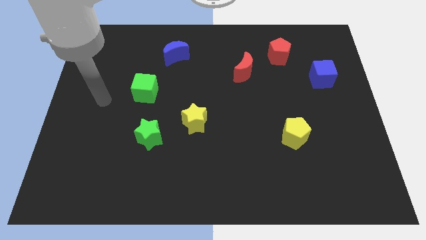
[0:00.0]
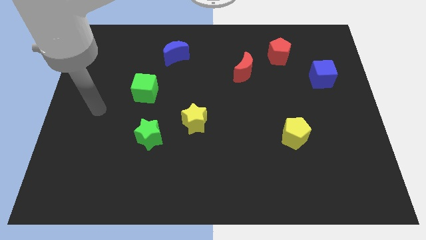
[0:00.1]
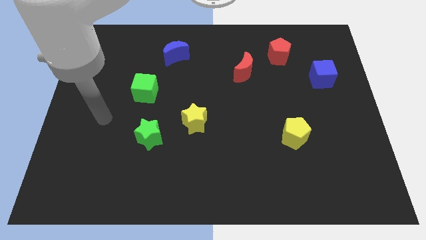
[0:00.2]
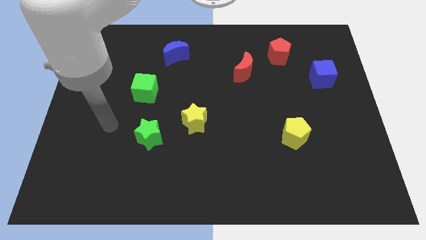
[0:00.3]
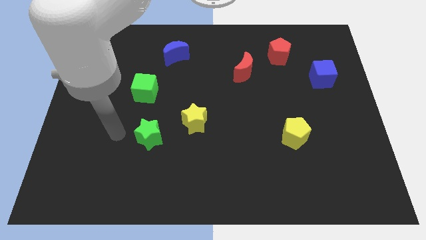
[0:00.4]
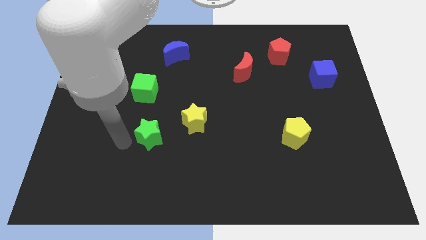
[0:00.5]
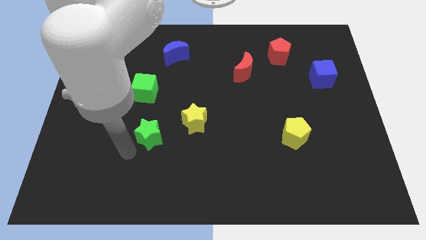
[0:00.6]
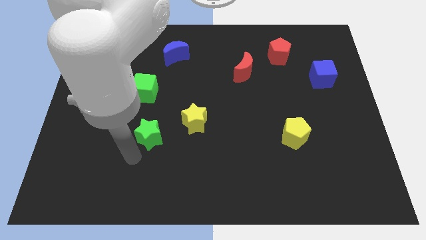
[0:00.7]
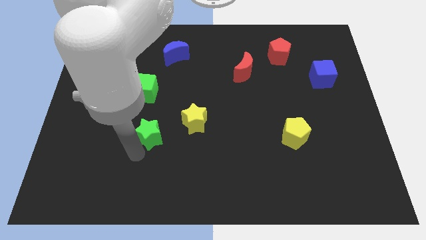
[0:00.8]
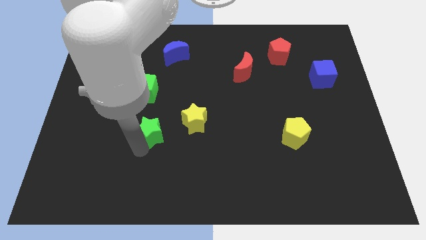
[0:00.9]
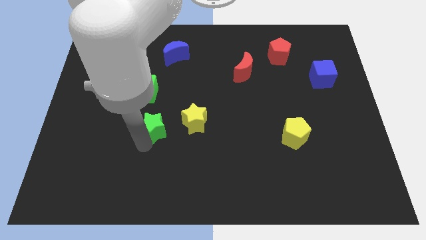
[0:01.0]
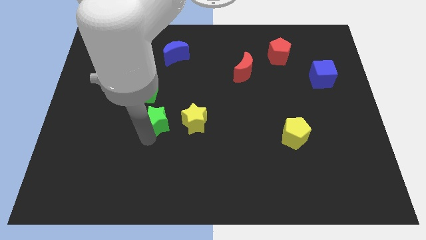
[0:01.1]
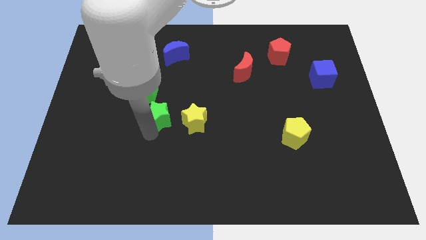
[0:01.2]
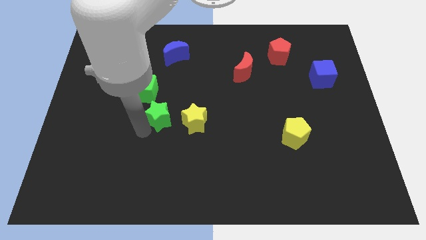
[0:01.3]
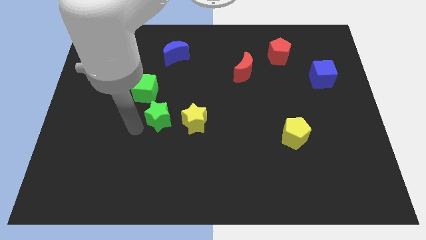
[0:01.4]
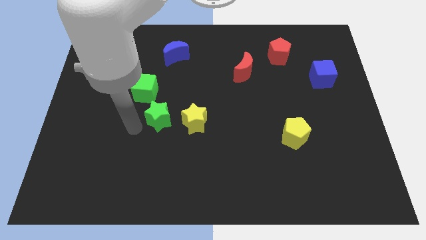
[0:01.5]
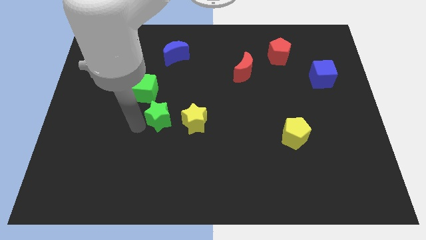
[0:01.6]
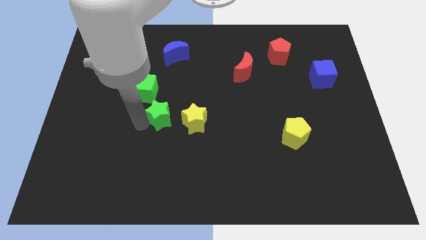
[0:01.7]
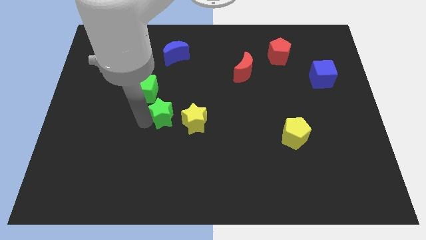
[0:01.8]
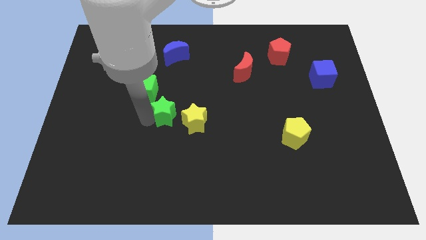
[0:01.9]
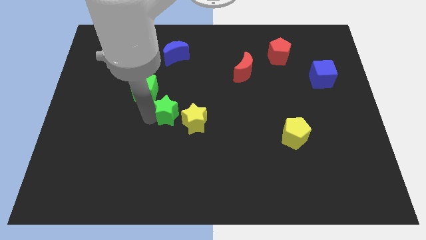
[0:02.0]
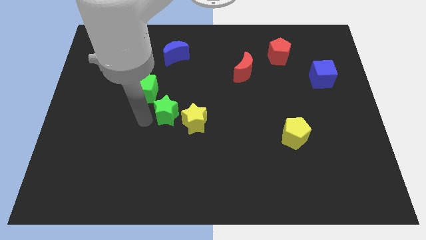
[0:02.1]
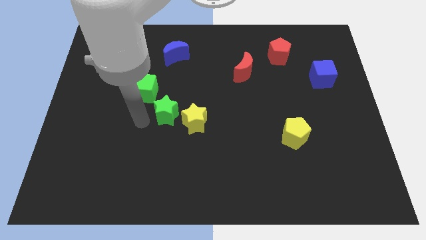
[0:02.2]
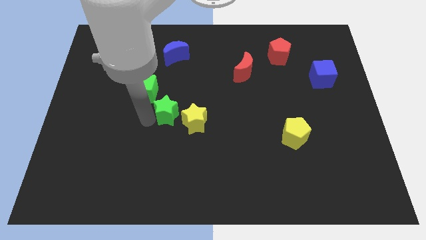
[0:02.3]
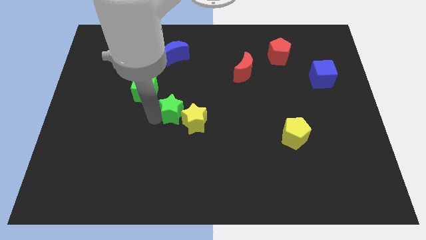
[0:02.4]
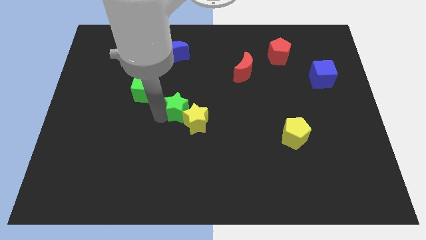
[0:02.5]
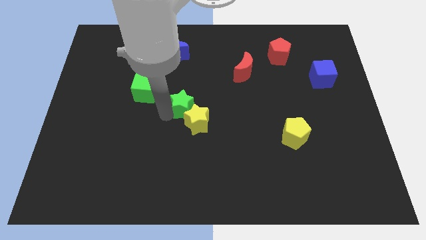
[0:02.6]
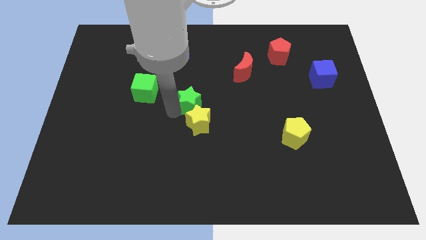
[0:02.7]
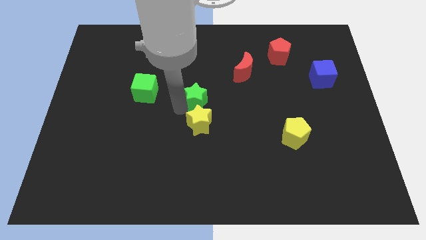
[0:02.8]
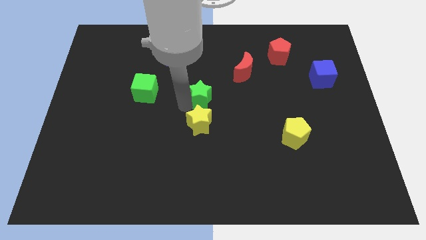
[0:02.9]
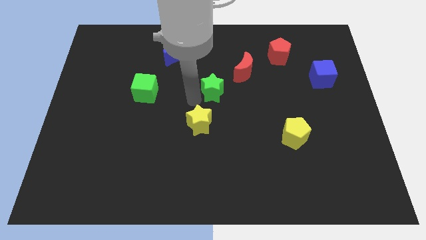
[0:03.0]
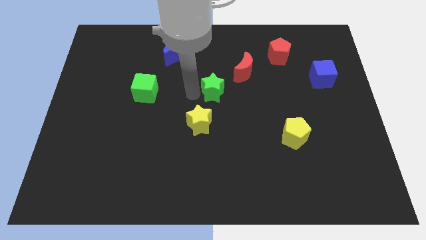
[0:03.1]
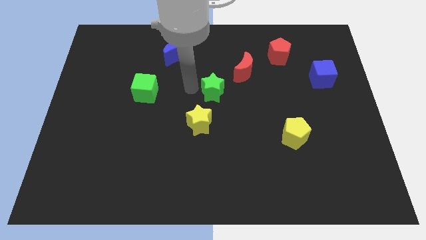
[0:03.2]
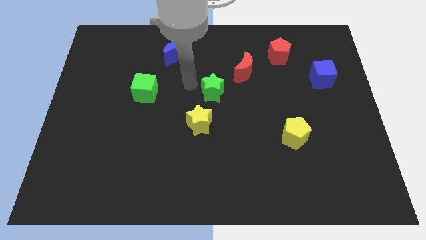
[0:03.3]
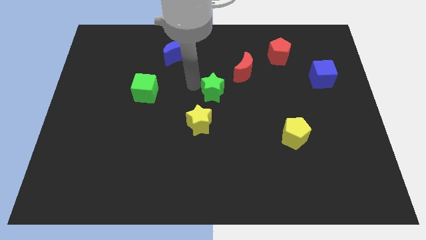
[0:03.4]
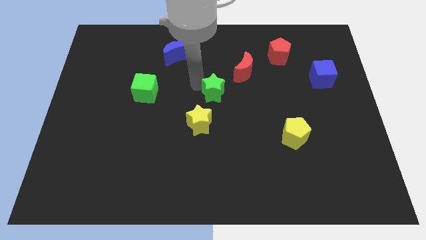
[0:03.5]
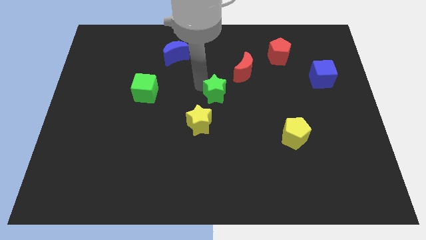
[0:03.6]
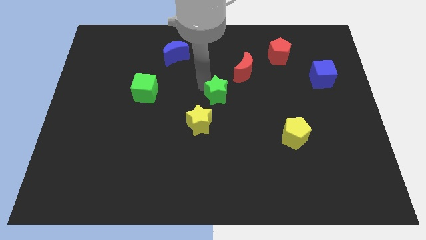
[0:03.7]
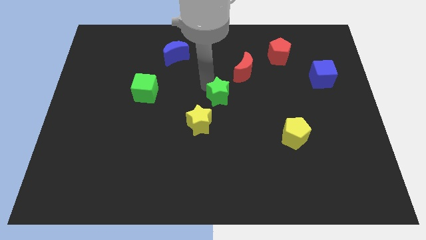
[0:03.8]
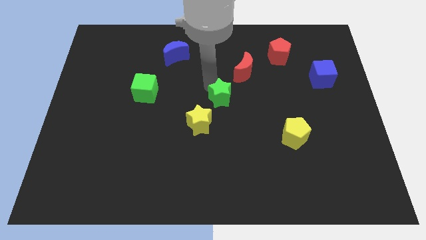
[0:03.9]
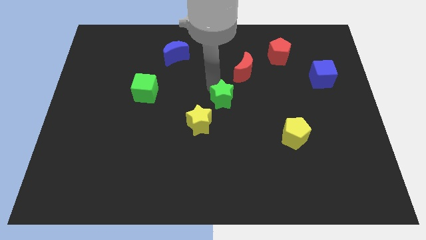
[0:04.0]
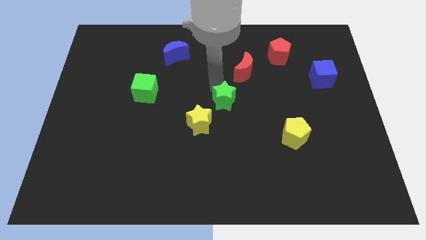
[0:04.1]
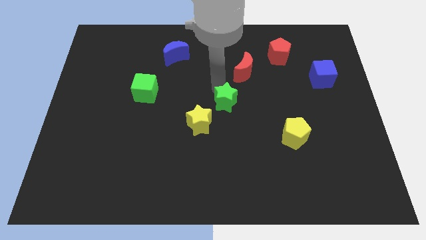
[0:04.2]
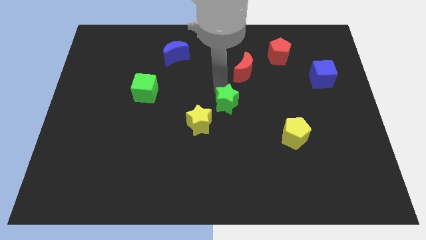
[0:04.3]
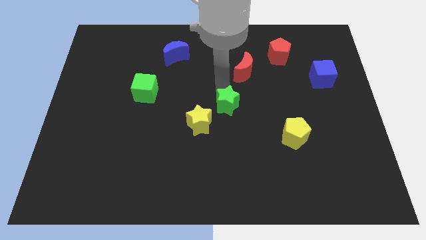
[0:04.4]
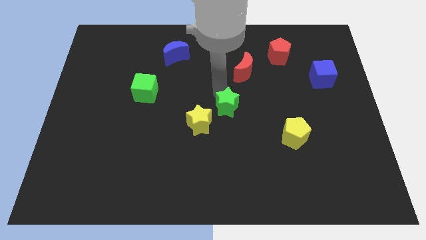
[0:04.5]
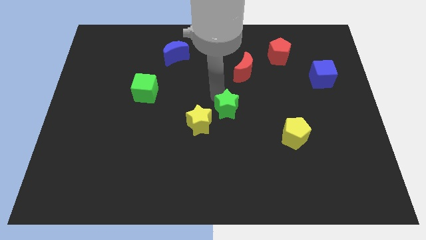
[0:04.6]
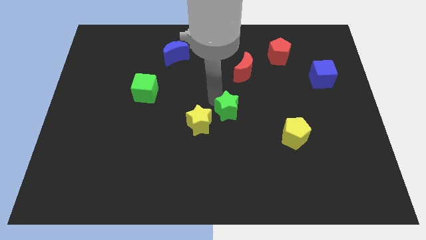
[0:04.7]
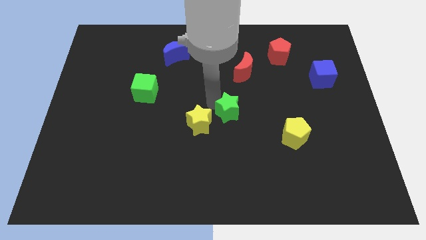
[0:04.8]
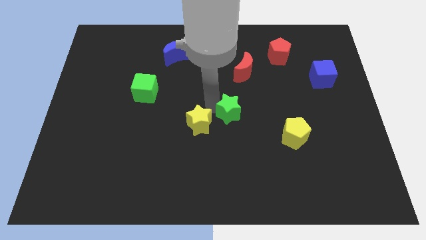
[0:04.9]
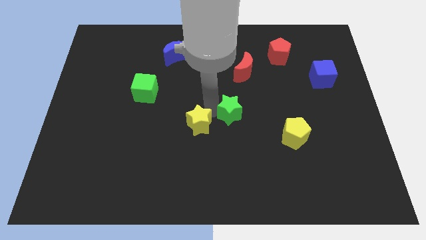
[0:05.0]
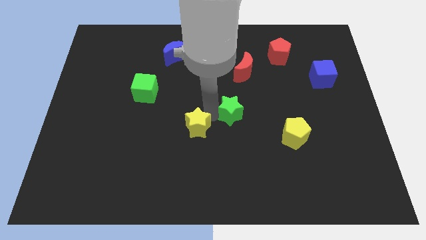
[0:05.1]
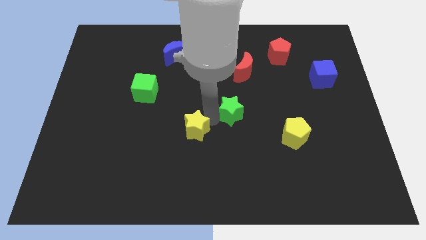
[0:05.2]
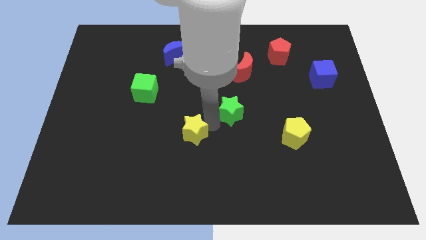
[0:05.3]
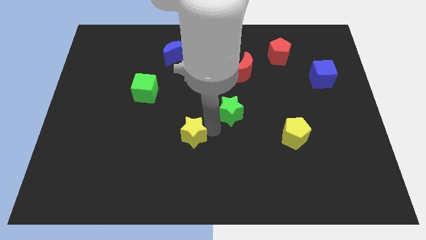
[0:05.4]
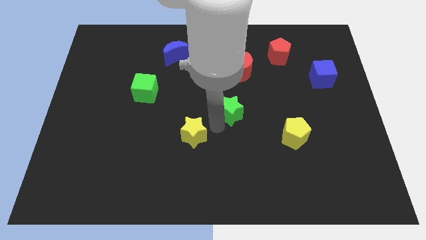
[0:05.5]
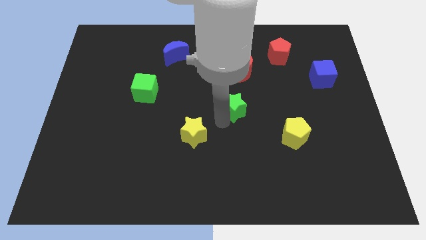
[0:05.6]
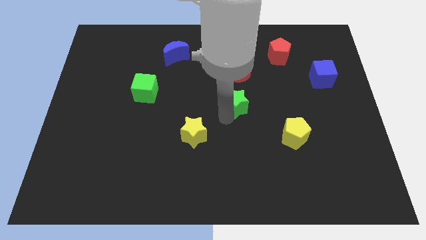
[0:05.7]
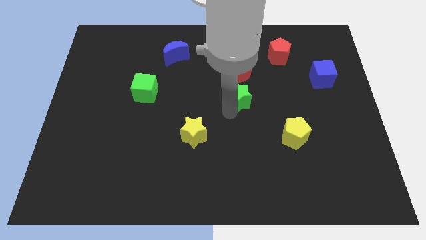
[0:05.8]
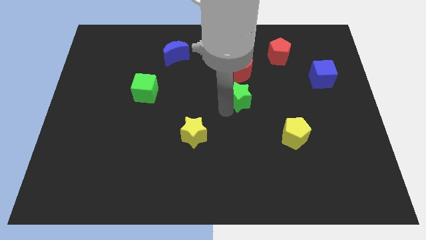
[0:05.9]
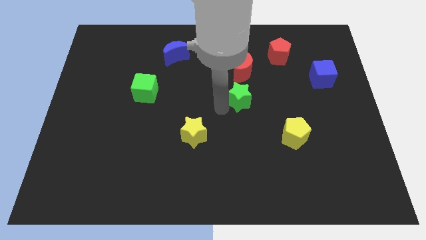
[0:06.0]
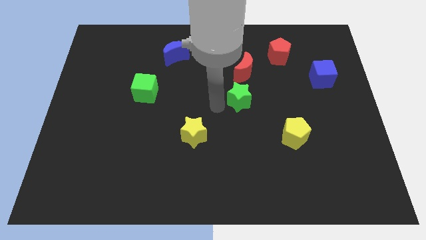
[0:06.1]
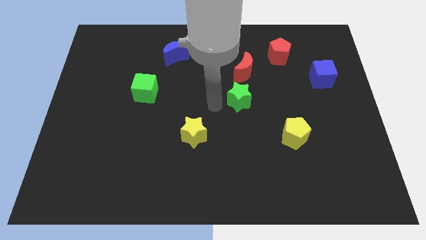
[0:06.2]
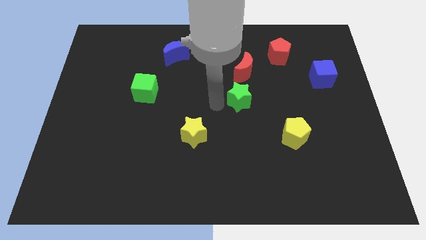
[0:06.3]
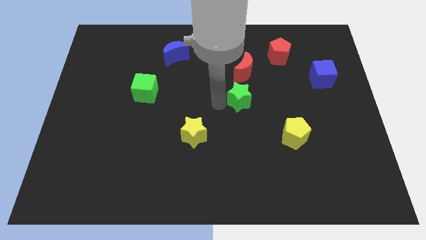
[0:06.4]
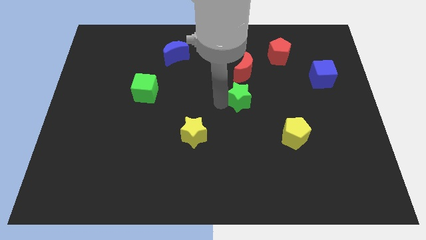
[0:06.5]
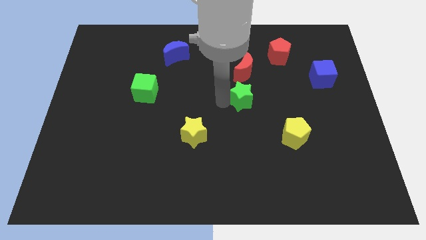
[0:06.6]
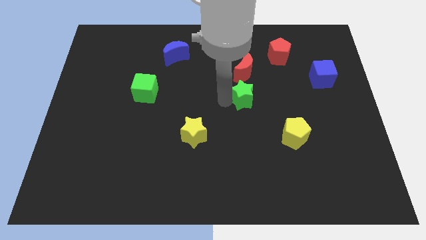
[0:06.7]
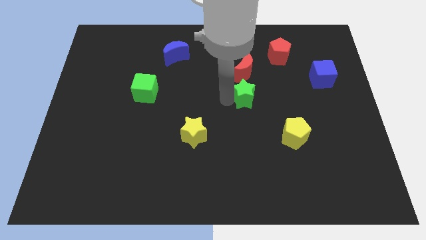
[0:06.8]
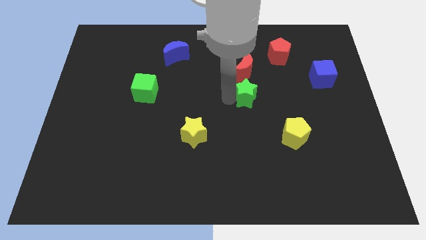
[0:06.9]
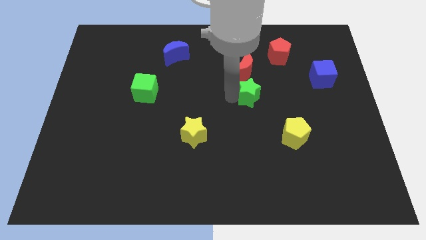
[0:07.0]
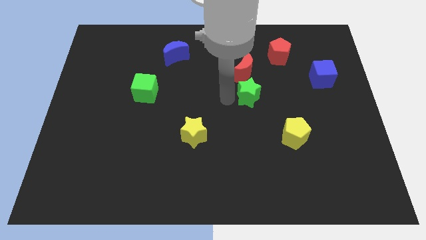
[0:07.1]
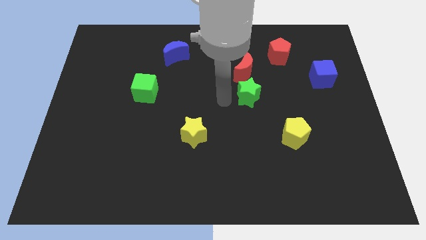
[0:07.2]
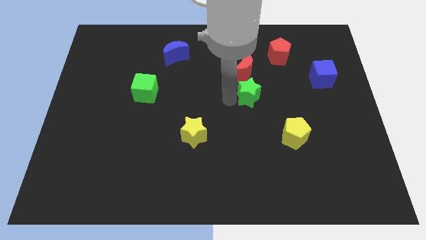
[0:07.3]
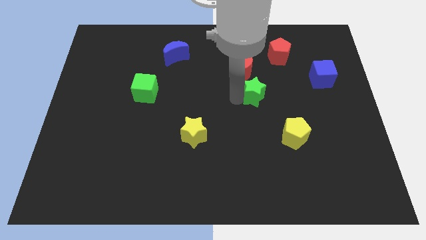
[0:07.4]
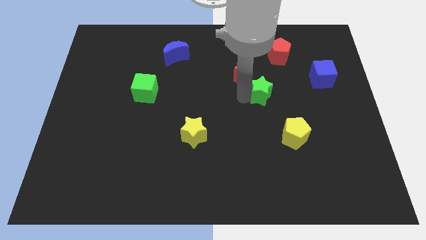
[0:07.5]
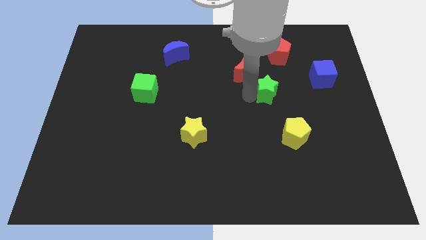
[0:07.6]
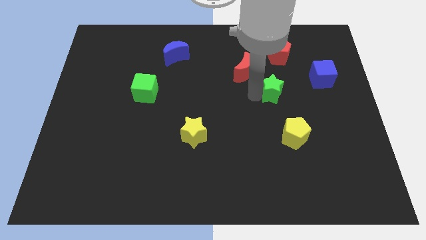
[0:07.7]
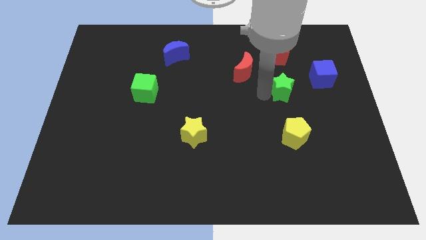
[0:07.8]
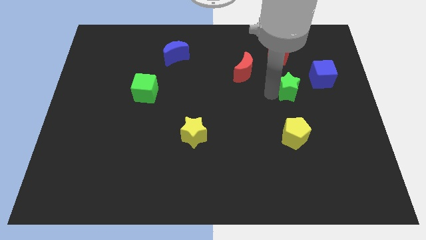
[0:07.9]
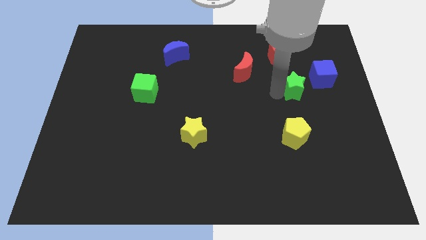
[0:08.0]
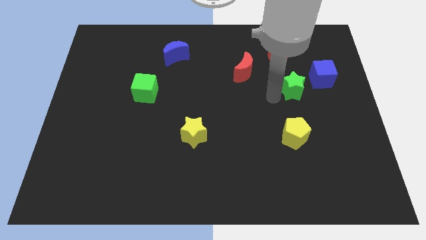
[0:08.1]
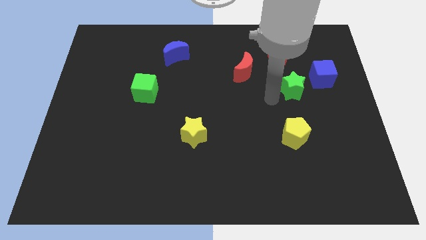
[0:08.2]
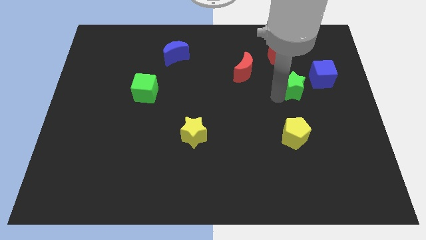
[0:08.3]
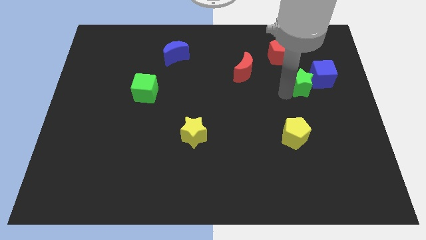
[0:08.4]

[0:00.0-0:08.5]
push the green star next to the blue cube
